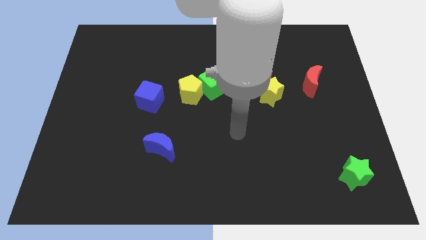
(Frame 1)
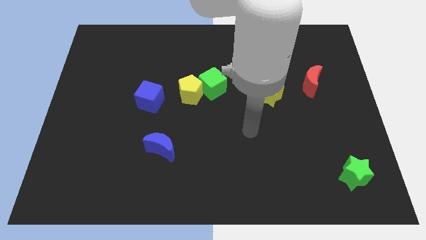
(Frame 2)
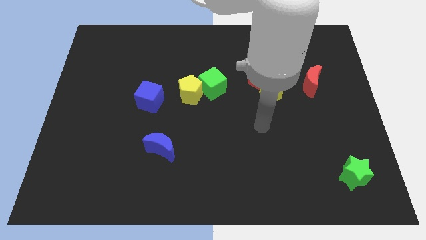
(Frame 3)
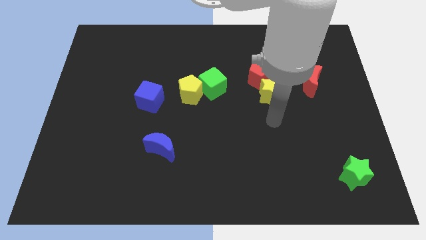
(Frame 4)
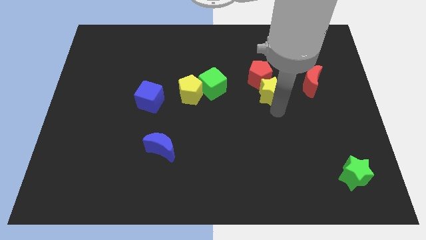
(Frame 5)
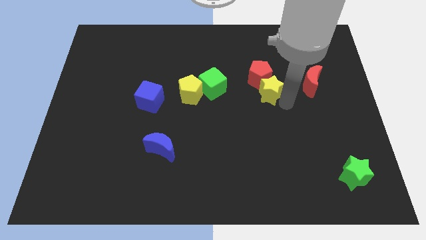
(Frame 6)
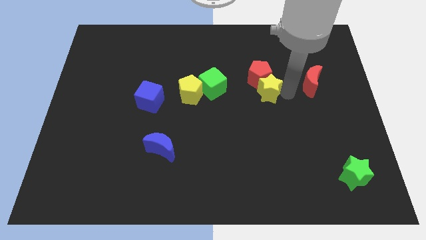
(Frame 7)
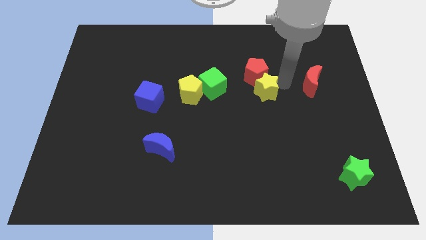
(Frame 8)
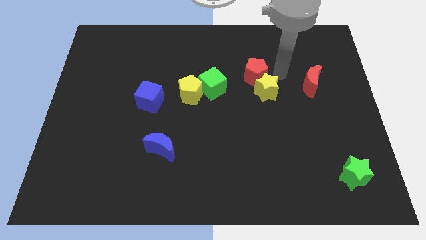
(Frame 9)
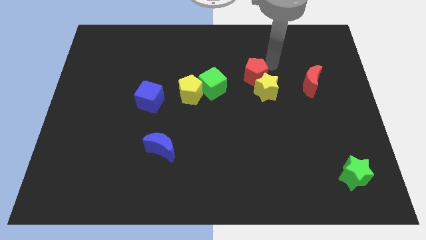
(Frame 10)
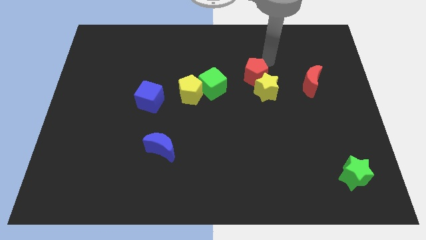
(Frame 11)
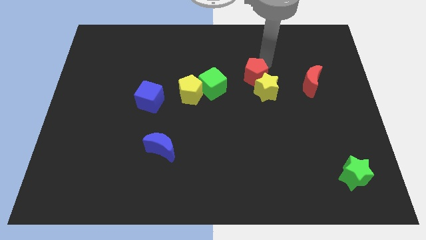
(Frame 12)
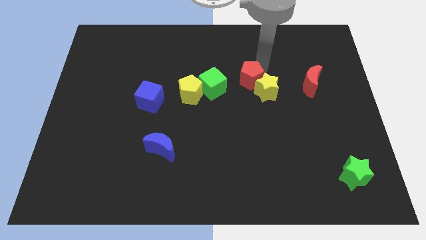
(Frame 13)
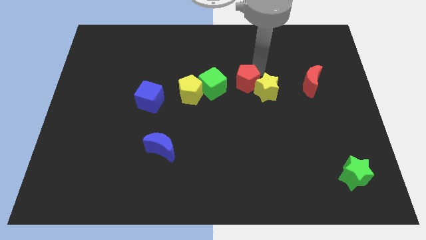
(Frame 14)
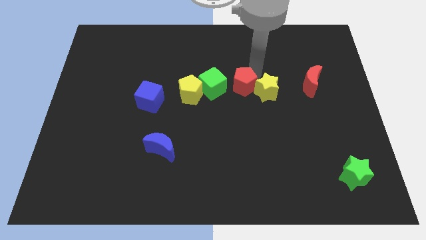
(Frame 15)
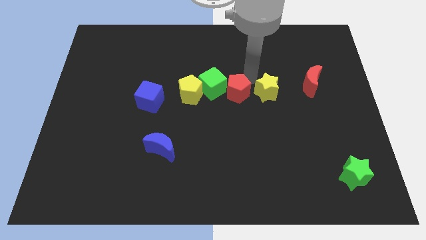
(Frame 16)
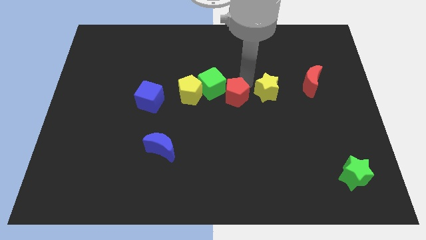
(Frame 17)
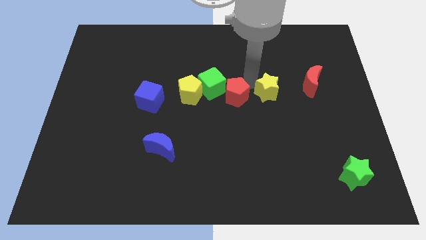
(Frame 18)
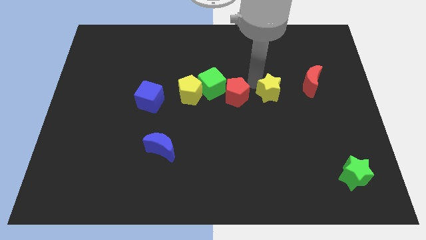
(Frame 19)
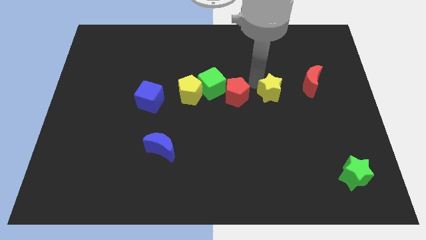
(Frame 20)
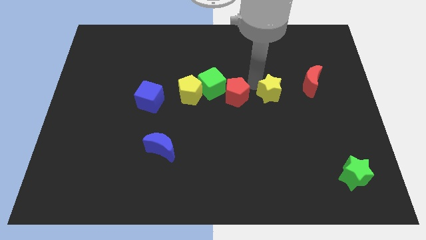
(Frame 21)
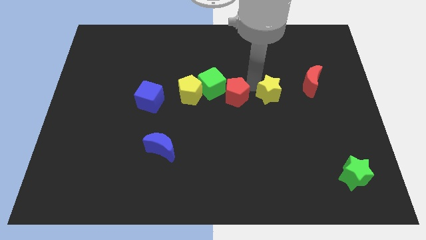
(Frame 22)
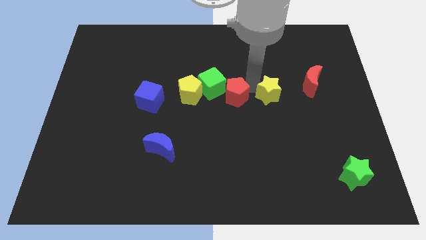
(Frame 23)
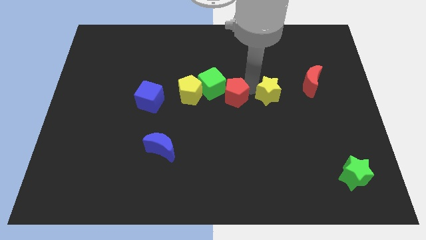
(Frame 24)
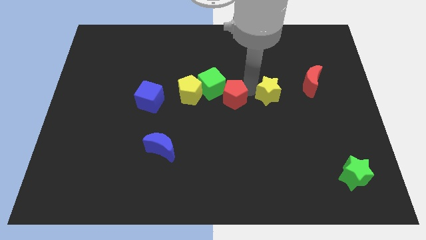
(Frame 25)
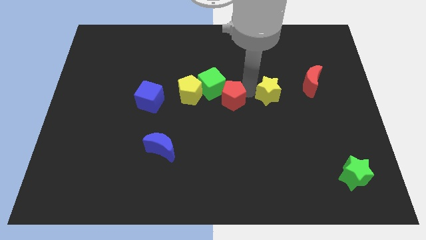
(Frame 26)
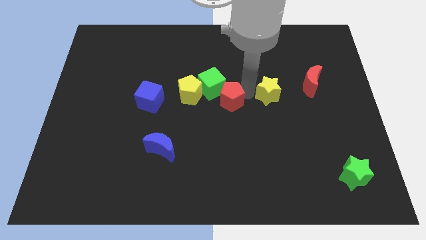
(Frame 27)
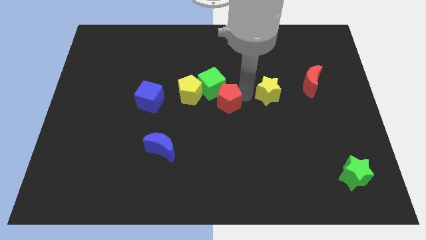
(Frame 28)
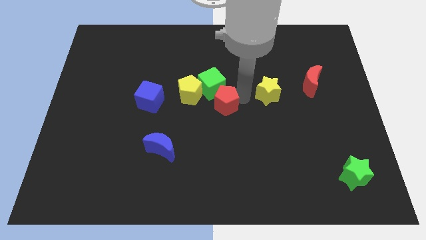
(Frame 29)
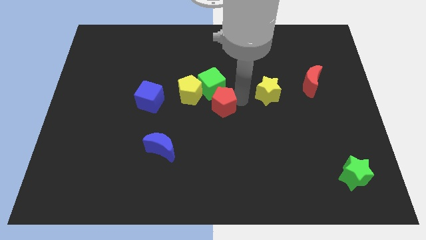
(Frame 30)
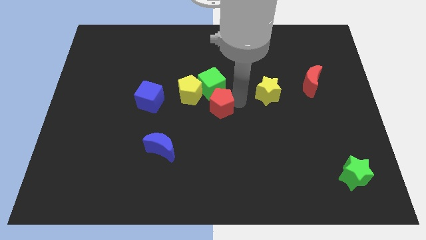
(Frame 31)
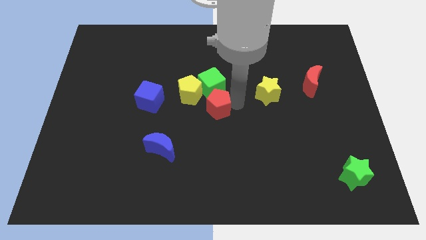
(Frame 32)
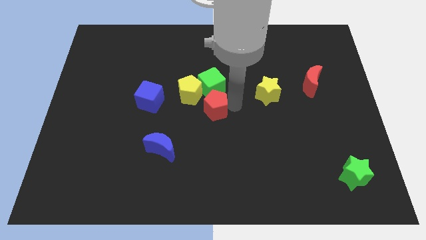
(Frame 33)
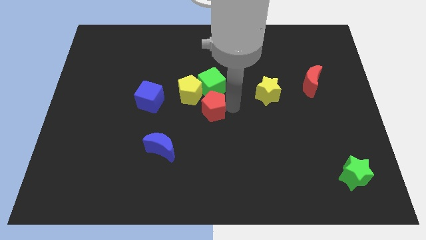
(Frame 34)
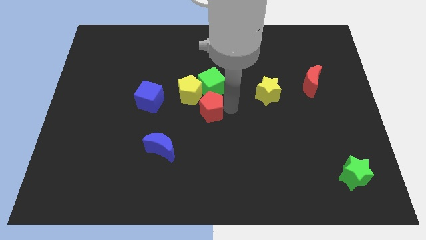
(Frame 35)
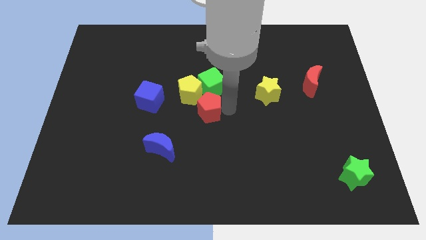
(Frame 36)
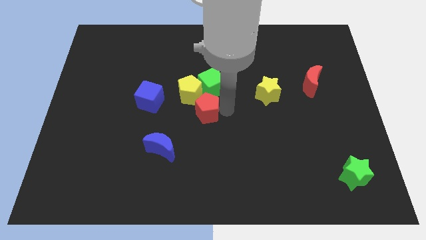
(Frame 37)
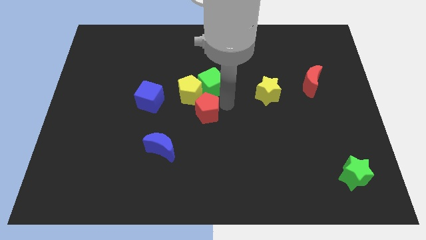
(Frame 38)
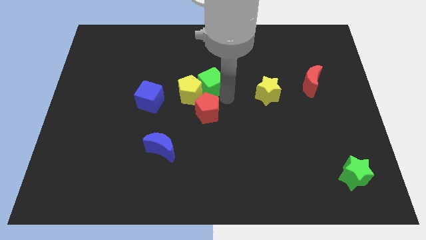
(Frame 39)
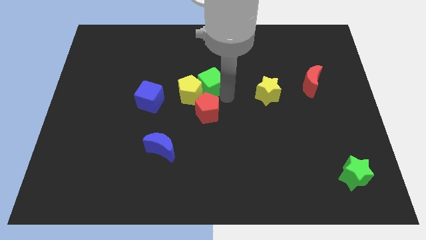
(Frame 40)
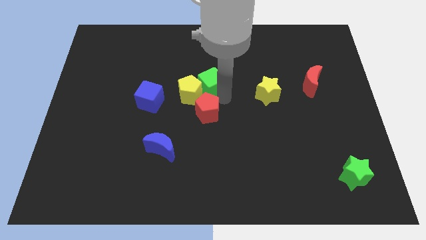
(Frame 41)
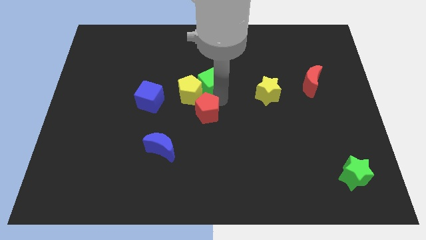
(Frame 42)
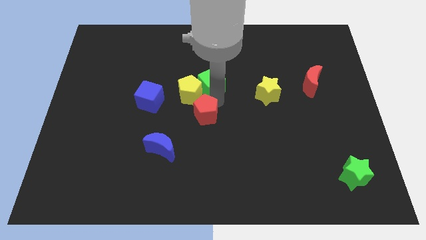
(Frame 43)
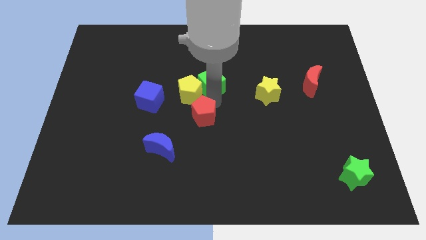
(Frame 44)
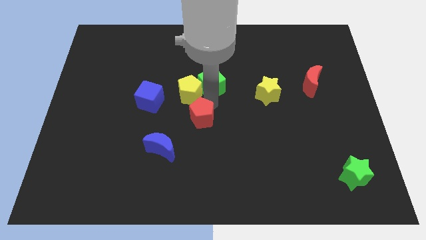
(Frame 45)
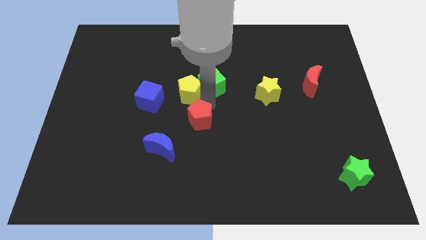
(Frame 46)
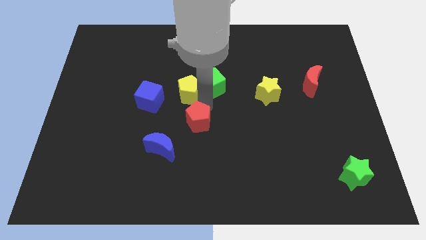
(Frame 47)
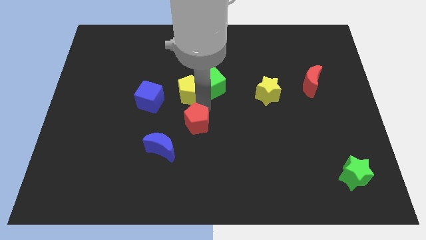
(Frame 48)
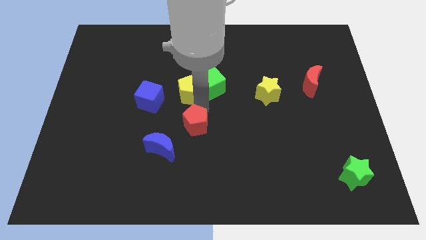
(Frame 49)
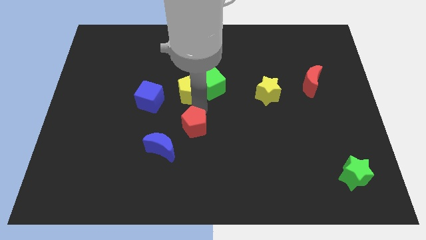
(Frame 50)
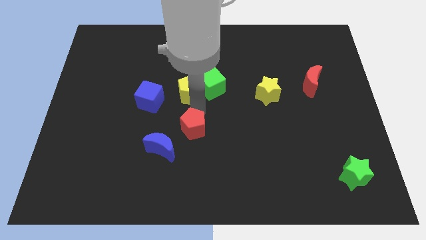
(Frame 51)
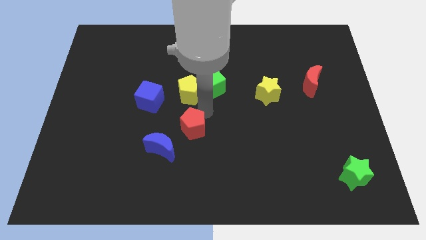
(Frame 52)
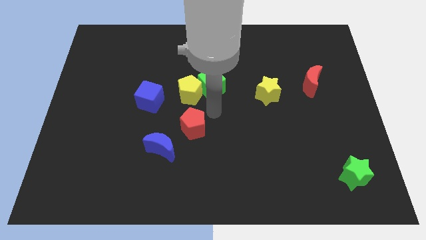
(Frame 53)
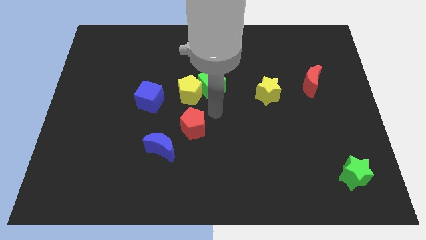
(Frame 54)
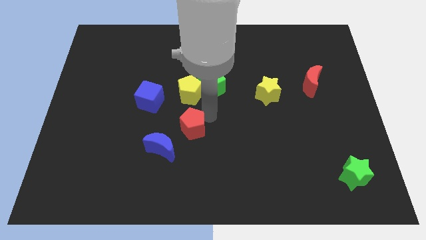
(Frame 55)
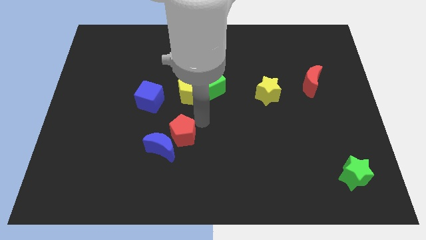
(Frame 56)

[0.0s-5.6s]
move the red pentagon close to the blue moon

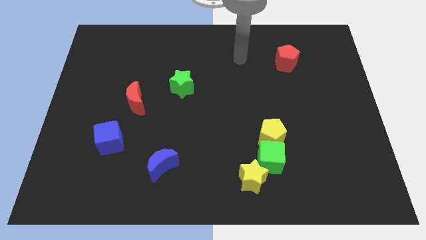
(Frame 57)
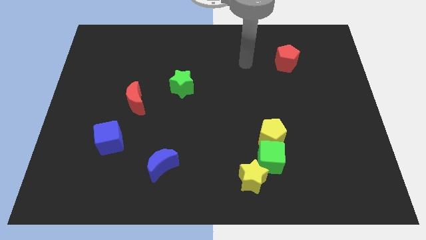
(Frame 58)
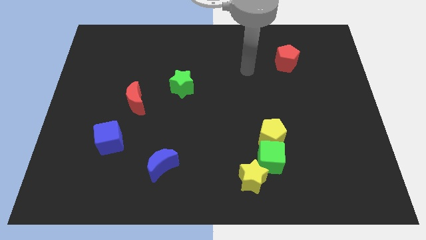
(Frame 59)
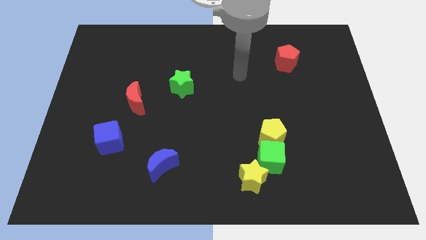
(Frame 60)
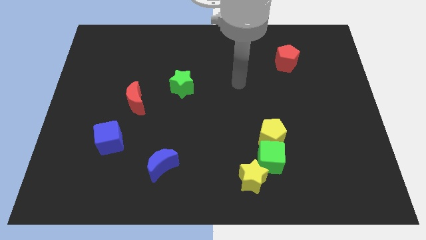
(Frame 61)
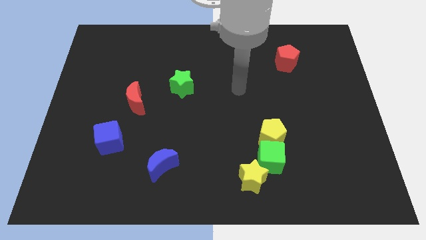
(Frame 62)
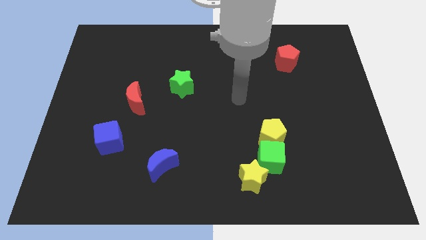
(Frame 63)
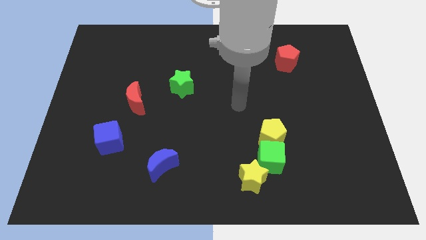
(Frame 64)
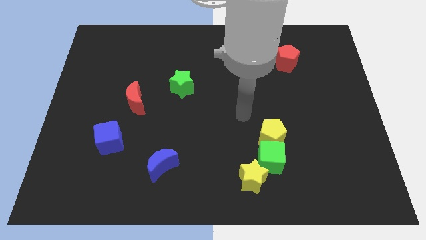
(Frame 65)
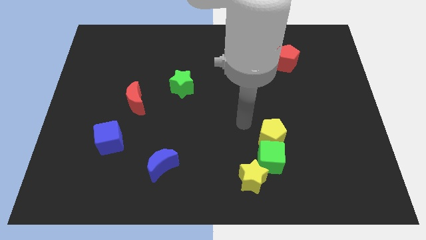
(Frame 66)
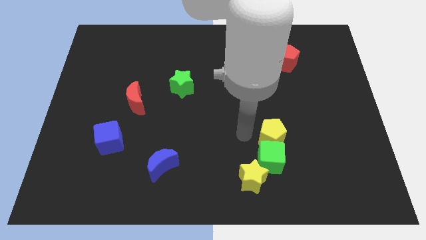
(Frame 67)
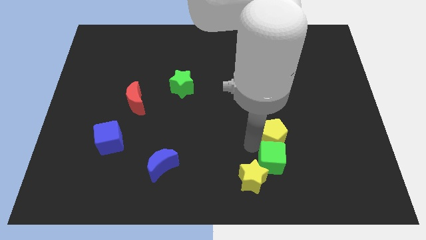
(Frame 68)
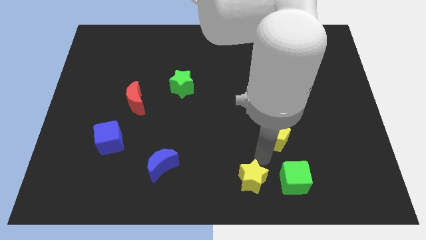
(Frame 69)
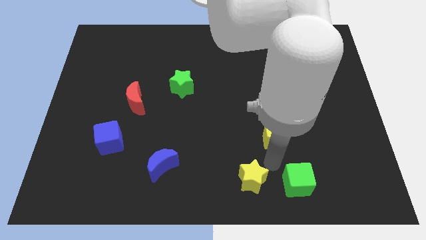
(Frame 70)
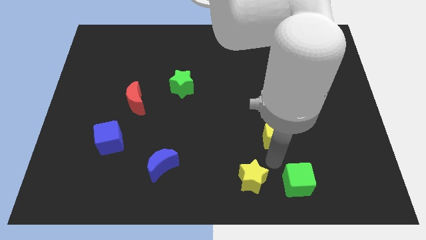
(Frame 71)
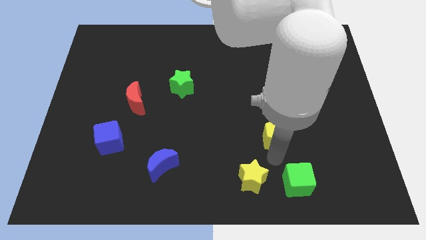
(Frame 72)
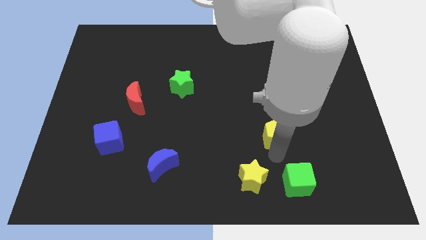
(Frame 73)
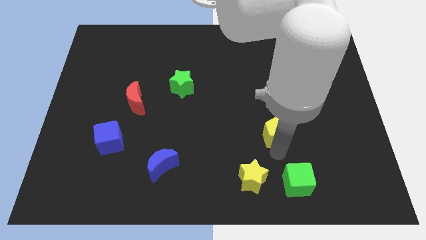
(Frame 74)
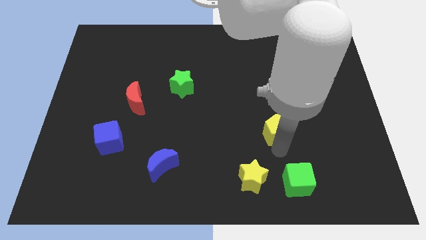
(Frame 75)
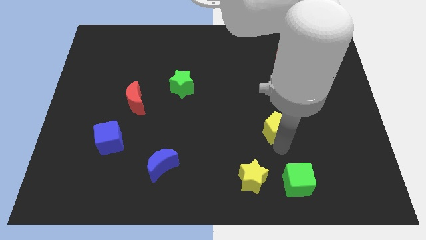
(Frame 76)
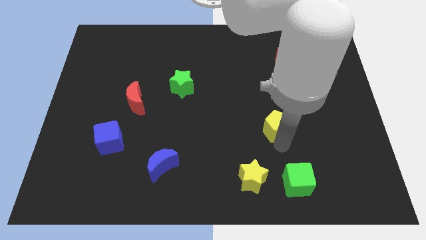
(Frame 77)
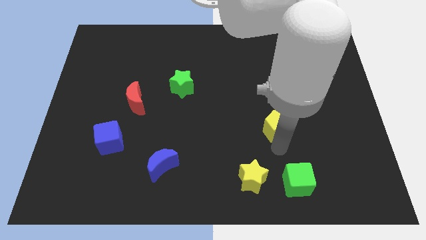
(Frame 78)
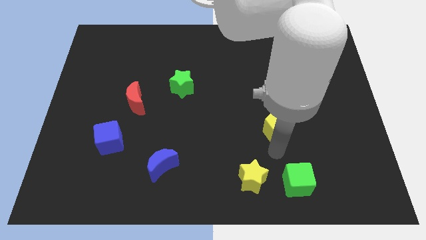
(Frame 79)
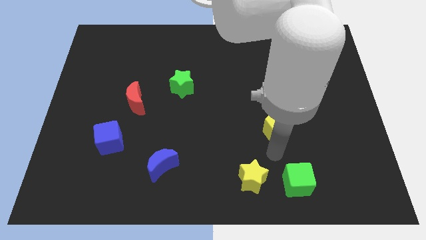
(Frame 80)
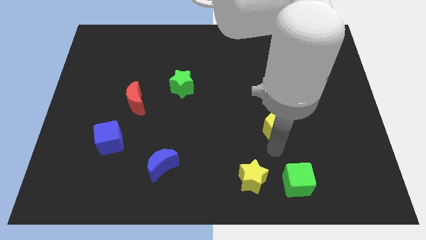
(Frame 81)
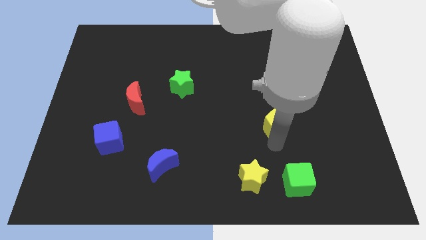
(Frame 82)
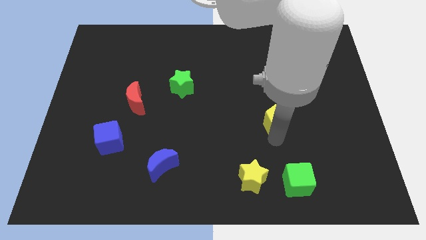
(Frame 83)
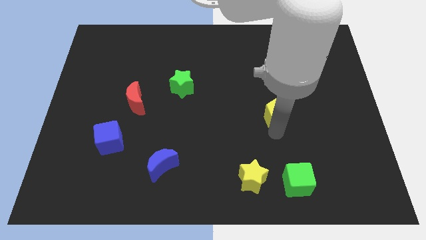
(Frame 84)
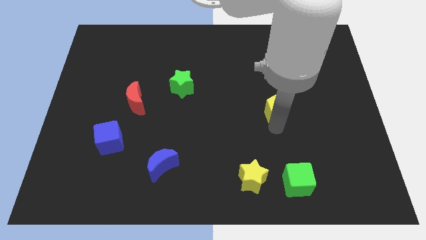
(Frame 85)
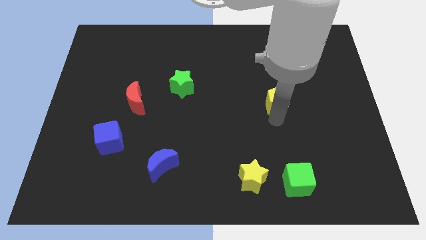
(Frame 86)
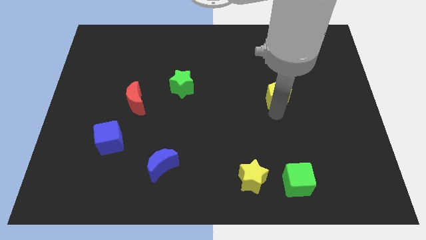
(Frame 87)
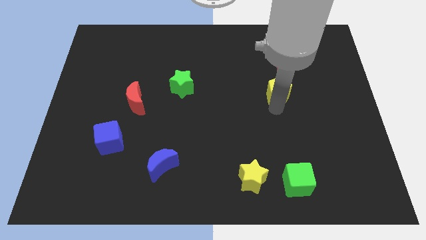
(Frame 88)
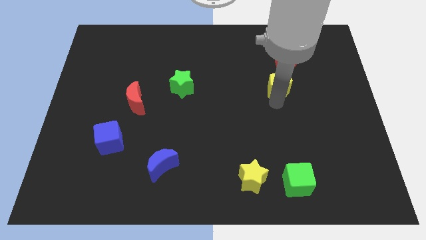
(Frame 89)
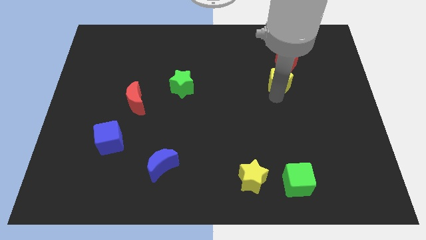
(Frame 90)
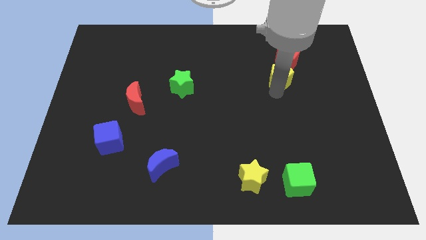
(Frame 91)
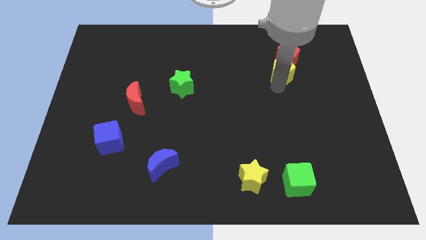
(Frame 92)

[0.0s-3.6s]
push the yellow pentagon next to the red pentagon
